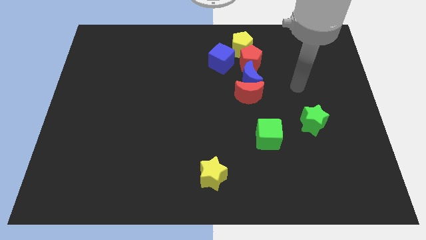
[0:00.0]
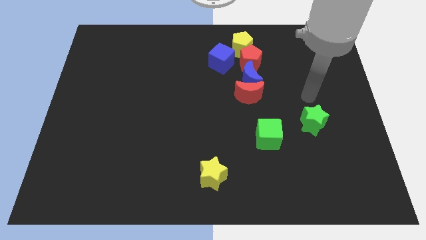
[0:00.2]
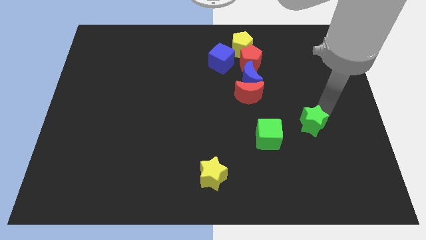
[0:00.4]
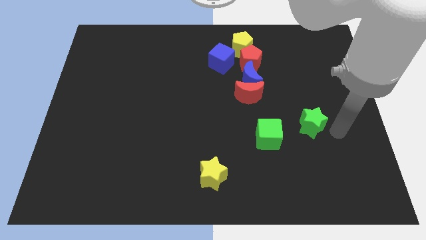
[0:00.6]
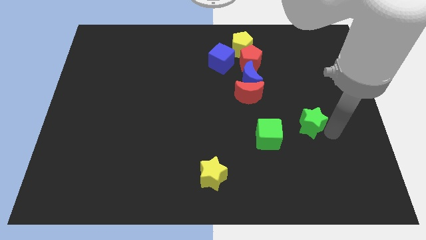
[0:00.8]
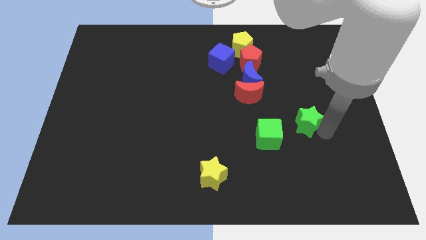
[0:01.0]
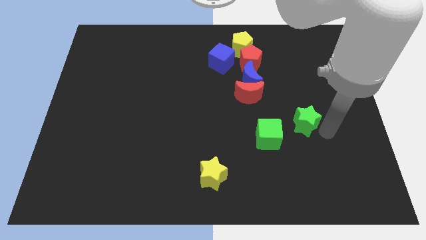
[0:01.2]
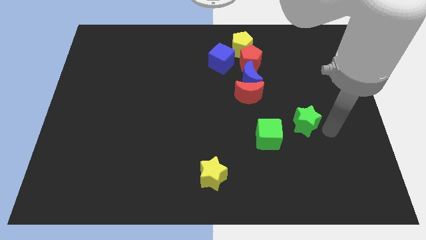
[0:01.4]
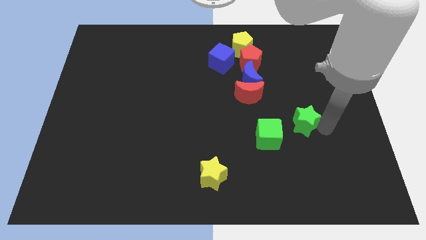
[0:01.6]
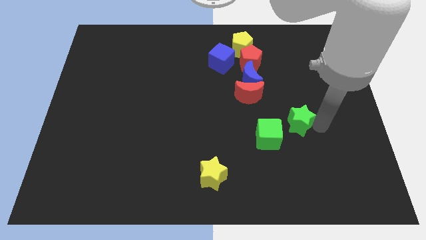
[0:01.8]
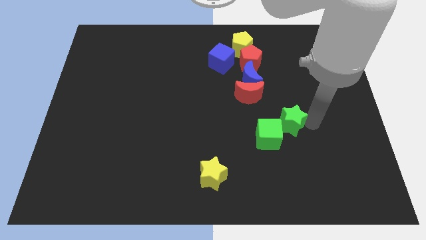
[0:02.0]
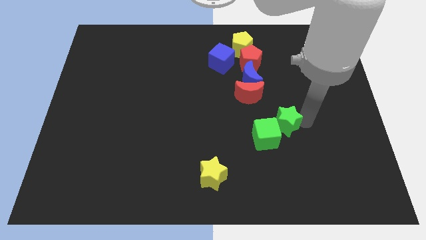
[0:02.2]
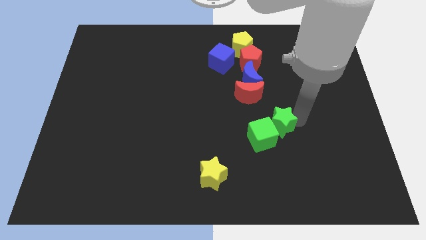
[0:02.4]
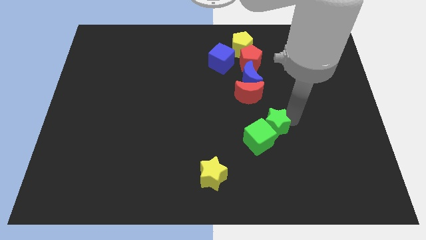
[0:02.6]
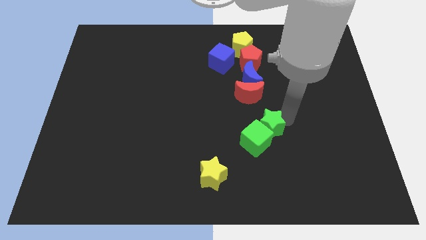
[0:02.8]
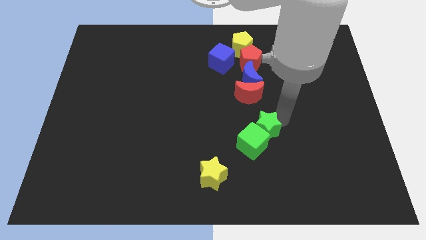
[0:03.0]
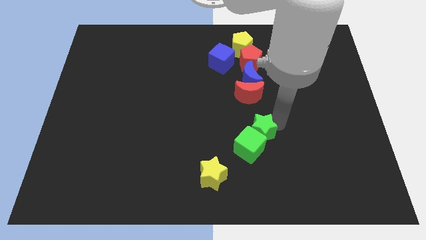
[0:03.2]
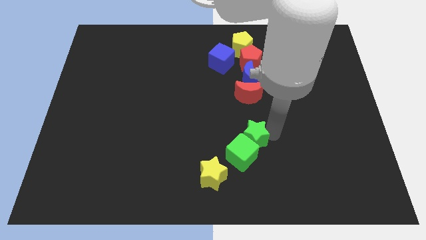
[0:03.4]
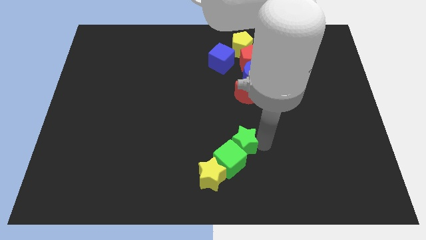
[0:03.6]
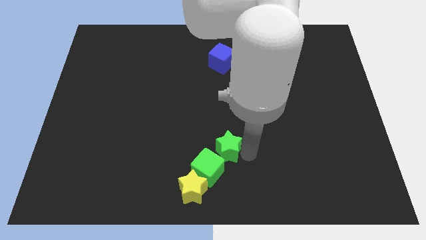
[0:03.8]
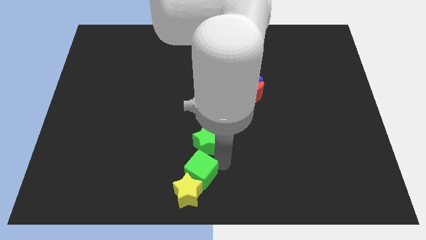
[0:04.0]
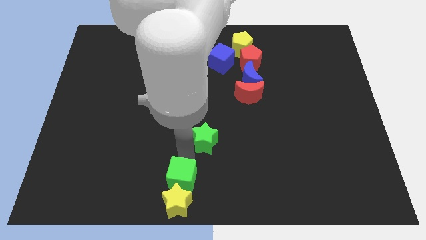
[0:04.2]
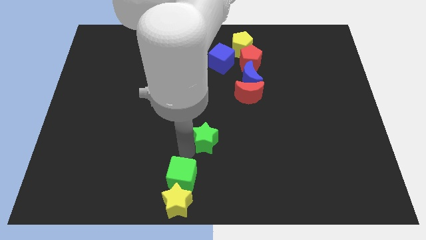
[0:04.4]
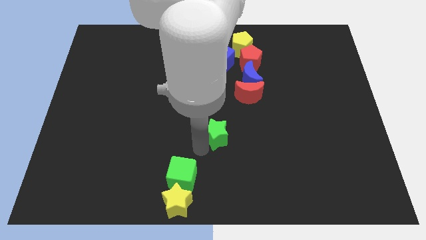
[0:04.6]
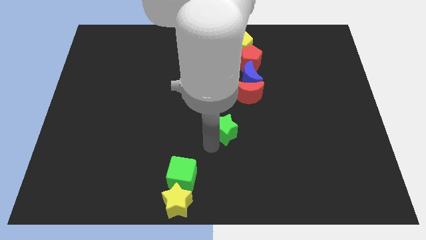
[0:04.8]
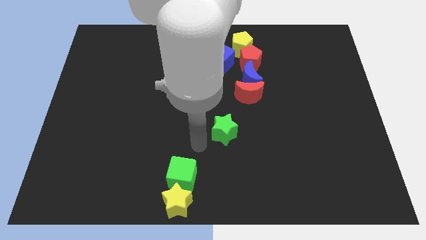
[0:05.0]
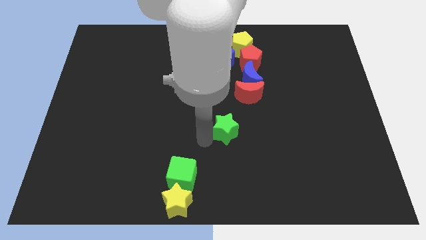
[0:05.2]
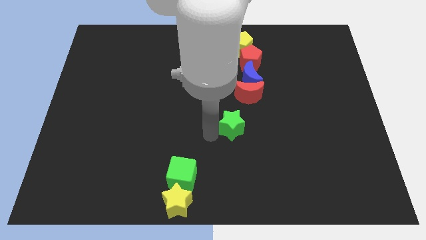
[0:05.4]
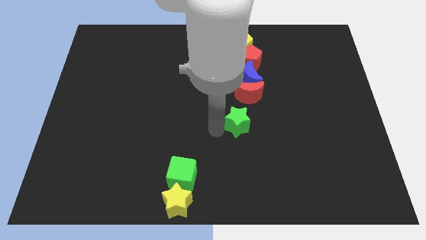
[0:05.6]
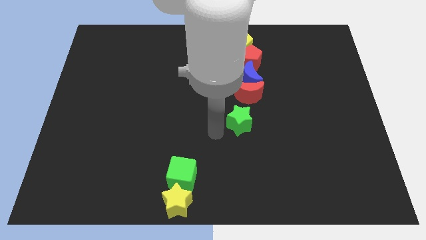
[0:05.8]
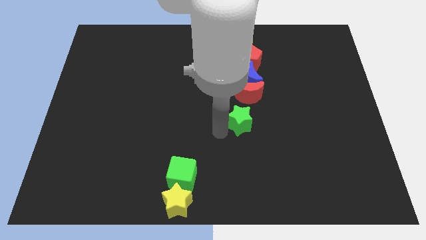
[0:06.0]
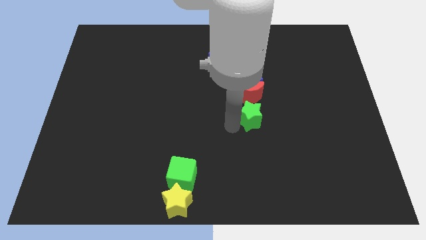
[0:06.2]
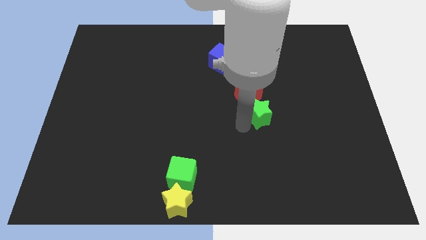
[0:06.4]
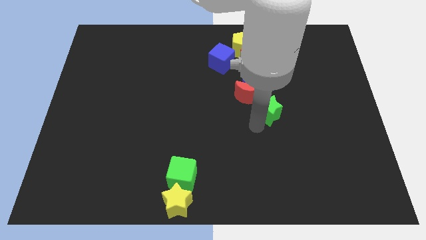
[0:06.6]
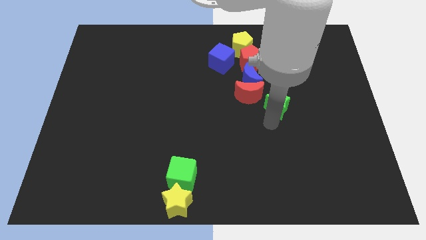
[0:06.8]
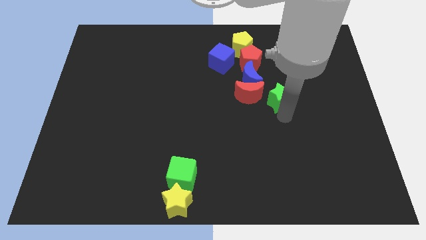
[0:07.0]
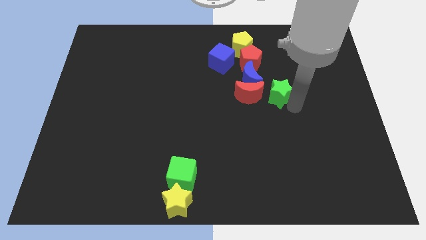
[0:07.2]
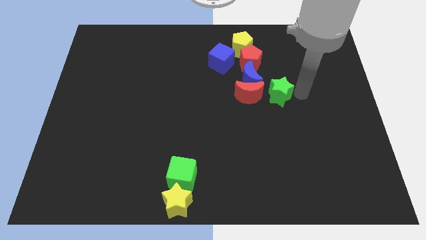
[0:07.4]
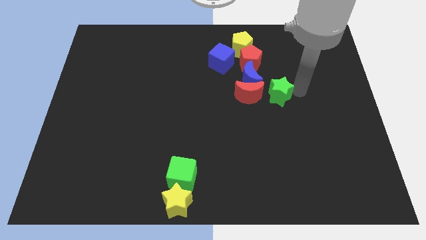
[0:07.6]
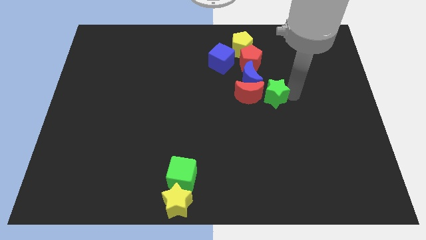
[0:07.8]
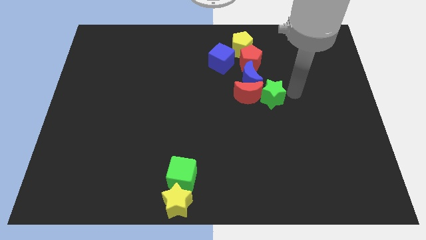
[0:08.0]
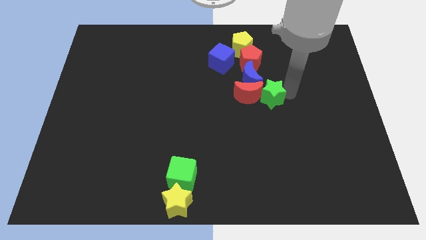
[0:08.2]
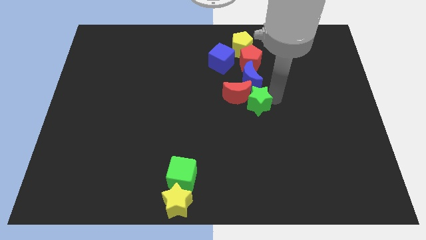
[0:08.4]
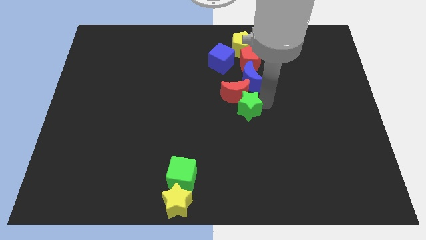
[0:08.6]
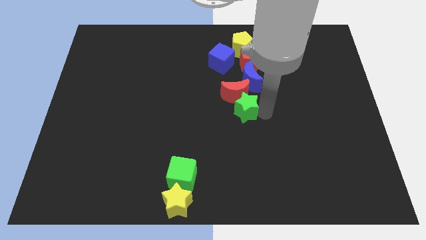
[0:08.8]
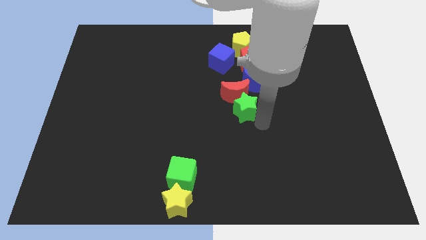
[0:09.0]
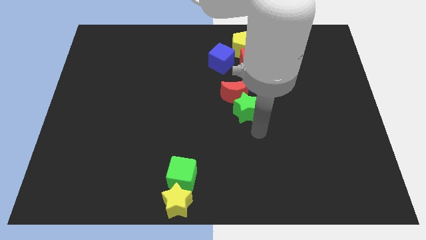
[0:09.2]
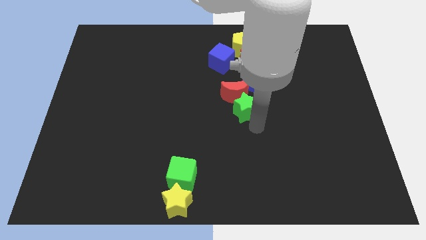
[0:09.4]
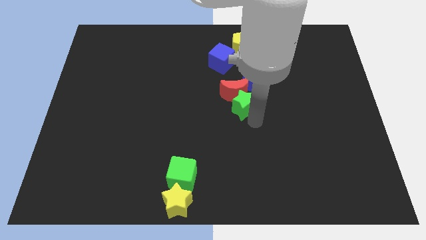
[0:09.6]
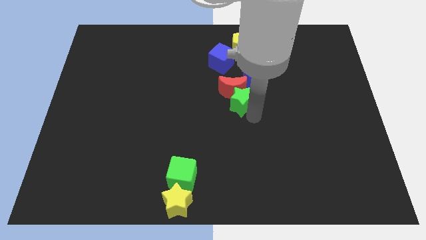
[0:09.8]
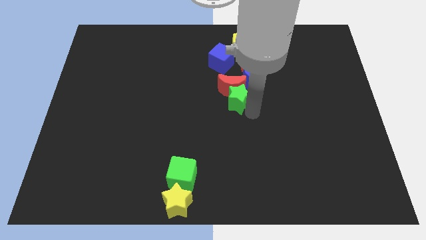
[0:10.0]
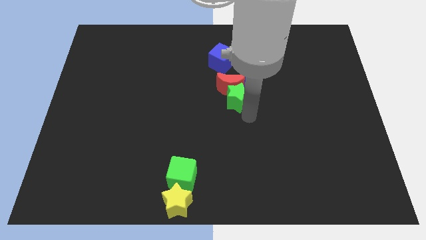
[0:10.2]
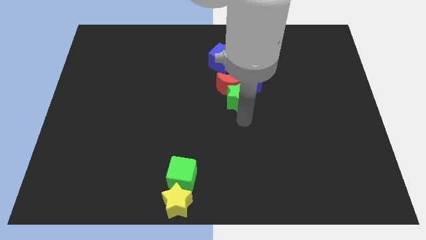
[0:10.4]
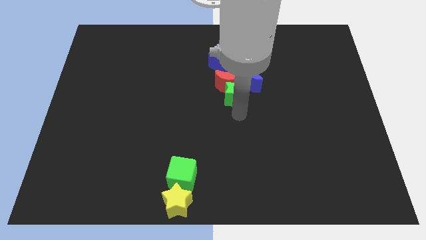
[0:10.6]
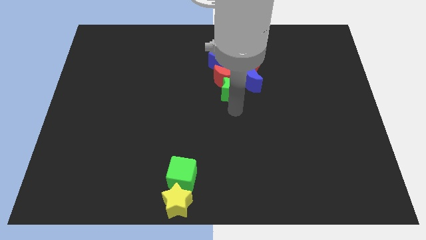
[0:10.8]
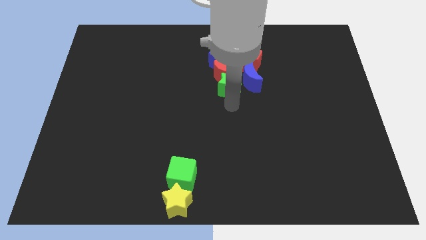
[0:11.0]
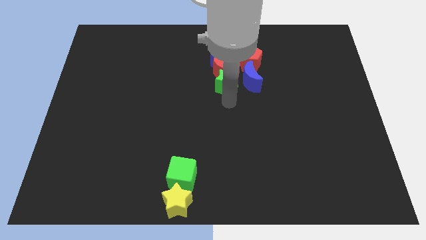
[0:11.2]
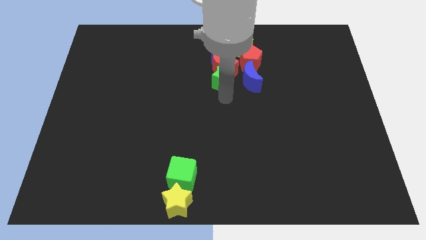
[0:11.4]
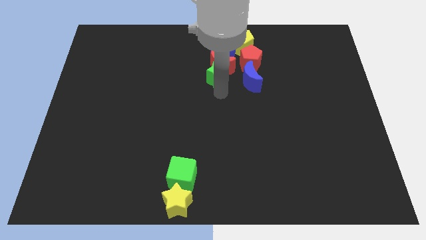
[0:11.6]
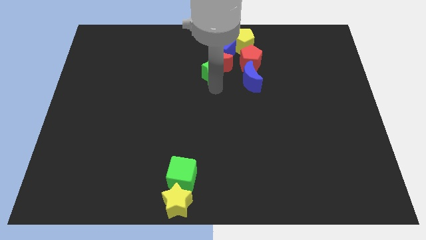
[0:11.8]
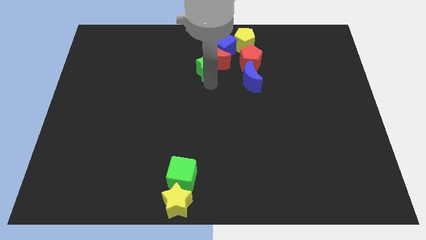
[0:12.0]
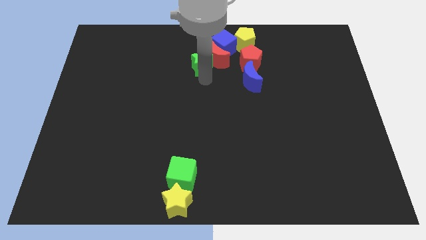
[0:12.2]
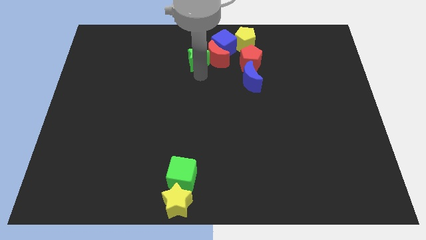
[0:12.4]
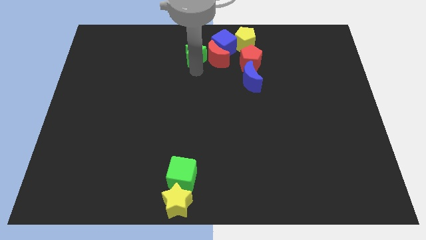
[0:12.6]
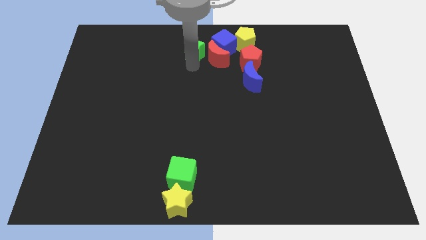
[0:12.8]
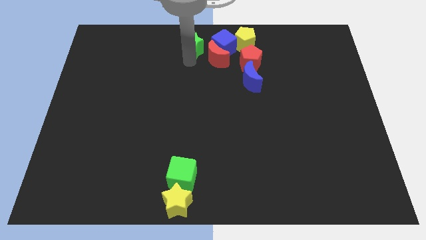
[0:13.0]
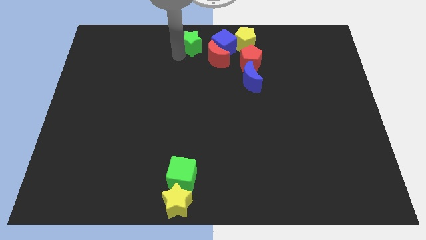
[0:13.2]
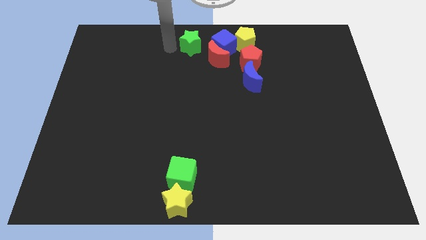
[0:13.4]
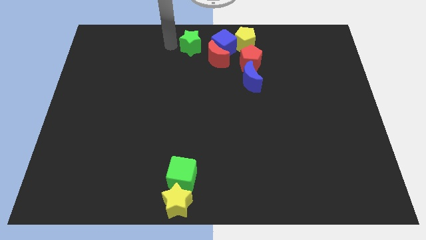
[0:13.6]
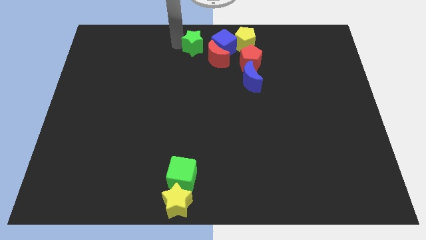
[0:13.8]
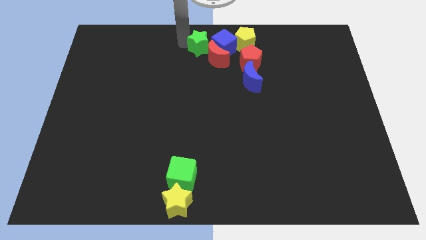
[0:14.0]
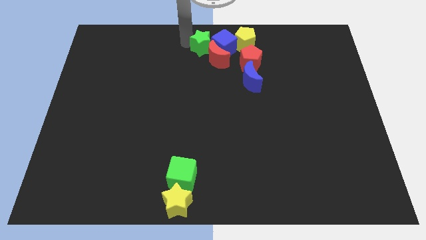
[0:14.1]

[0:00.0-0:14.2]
push the green star to the blue cube

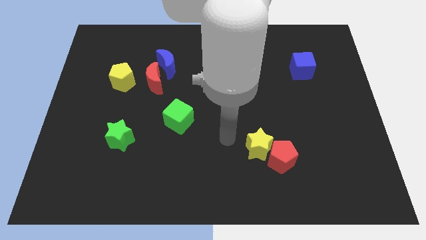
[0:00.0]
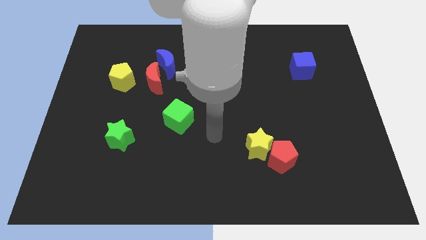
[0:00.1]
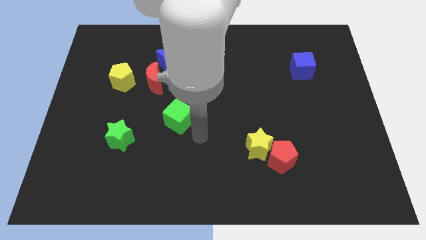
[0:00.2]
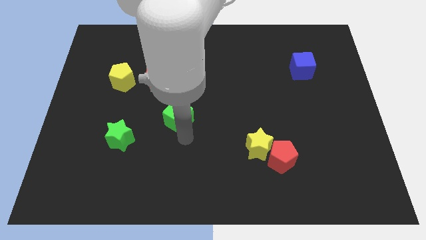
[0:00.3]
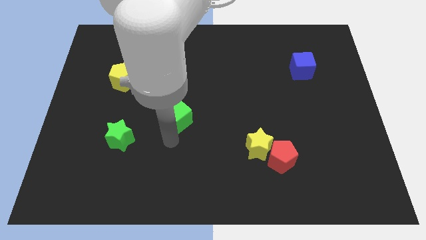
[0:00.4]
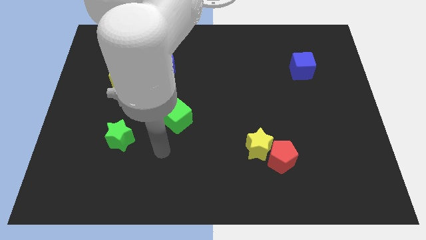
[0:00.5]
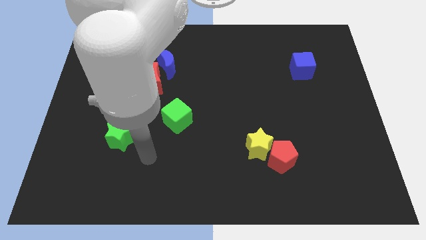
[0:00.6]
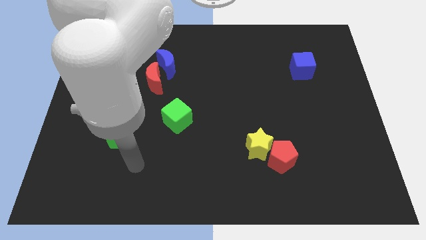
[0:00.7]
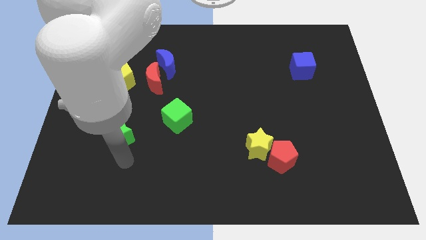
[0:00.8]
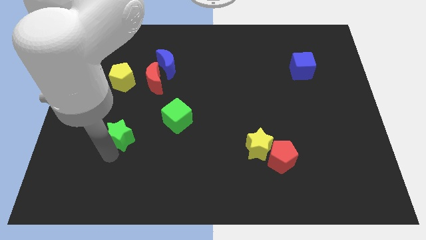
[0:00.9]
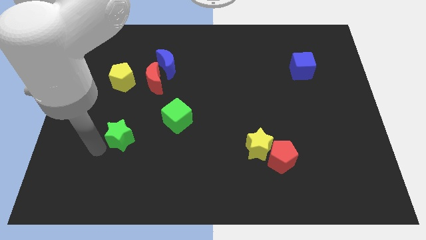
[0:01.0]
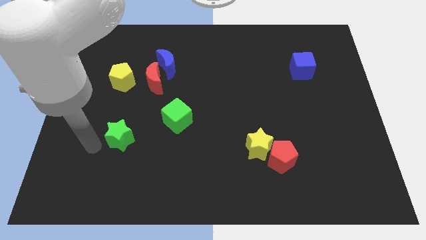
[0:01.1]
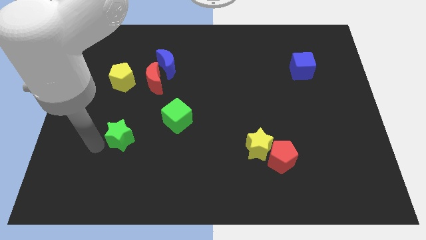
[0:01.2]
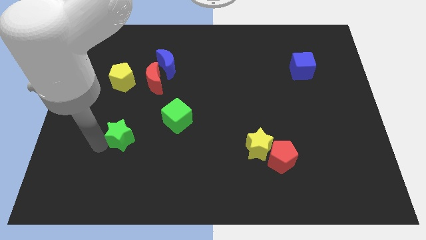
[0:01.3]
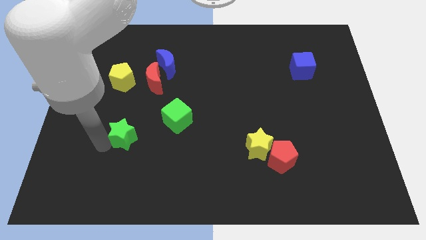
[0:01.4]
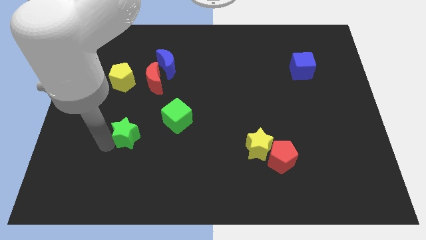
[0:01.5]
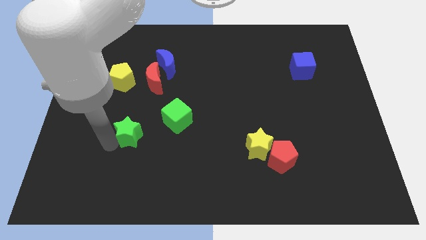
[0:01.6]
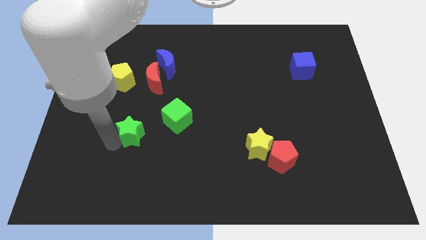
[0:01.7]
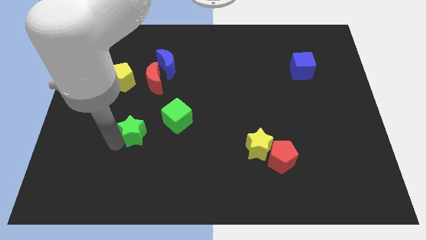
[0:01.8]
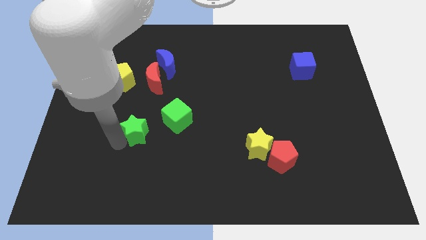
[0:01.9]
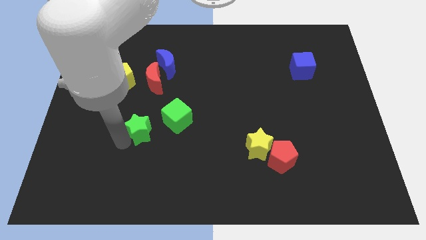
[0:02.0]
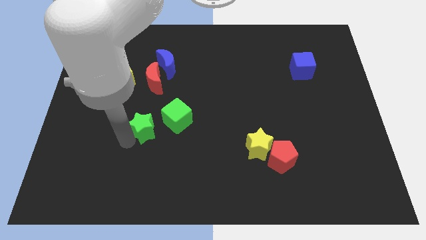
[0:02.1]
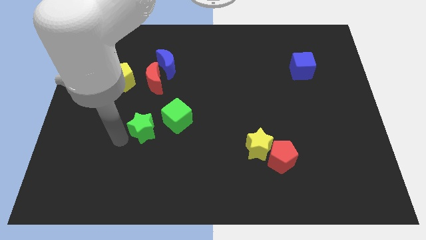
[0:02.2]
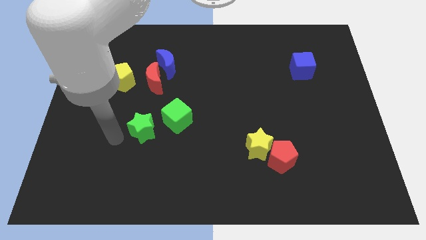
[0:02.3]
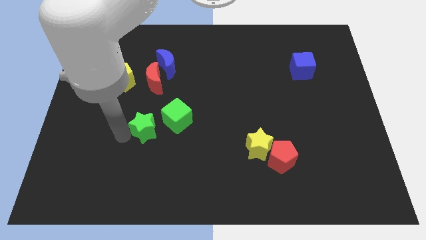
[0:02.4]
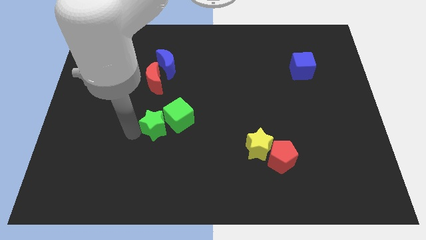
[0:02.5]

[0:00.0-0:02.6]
slide the green star close to the green cube
